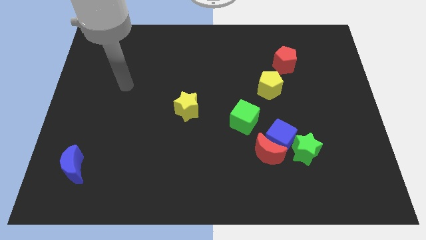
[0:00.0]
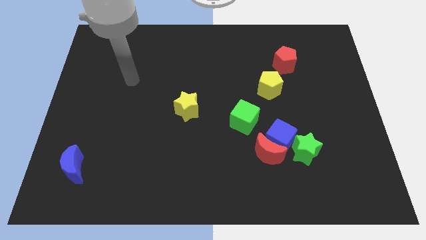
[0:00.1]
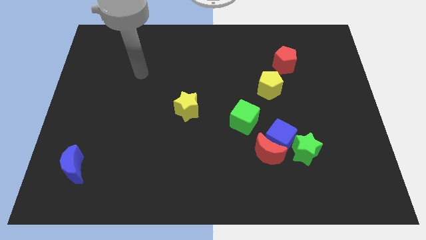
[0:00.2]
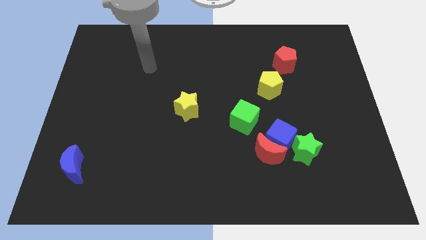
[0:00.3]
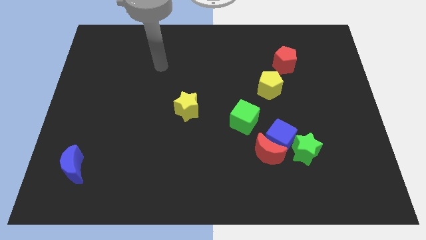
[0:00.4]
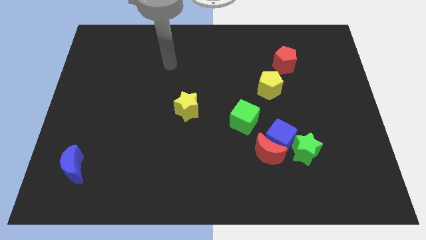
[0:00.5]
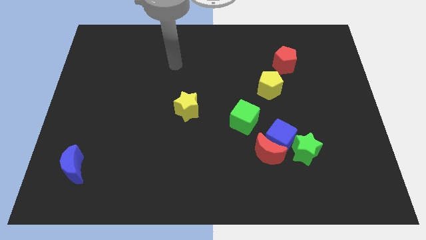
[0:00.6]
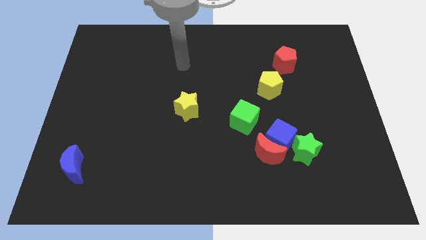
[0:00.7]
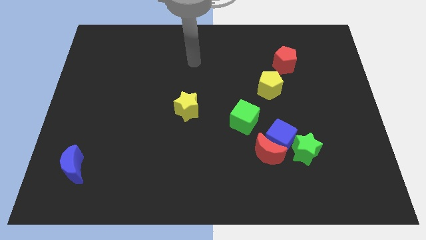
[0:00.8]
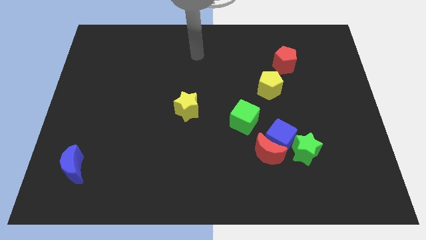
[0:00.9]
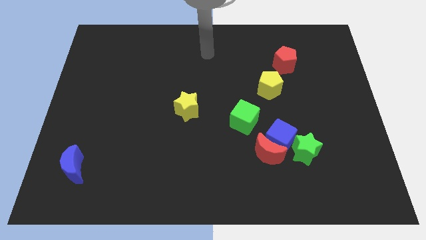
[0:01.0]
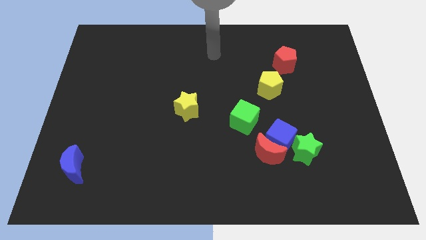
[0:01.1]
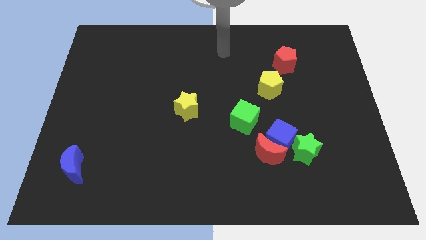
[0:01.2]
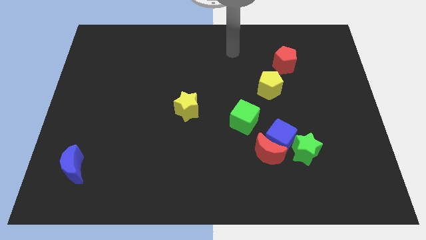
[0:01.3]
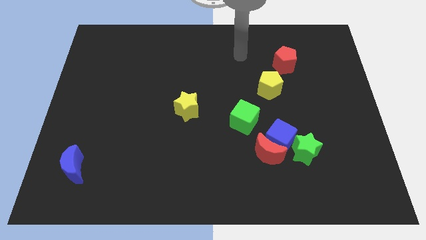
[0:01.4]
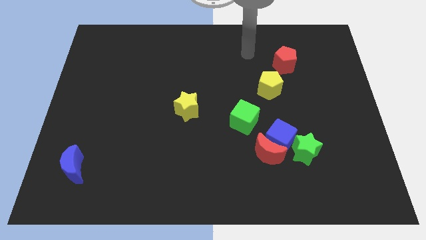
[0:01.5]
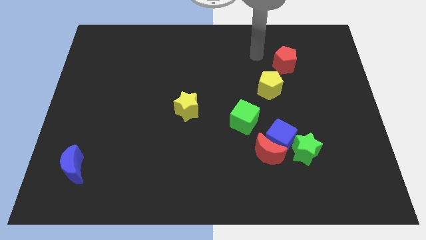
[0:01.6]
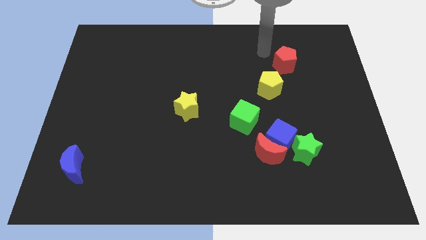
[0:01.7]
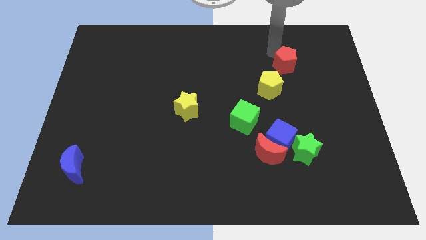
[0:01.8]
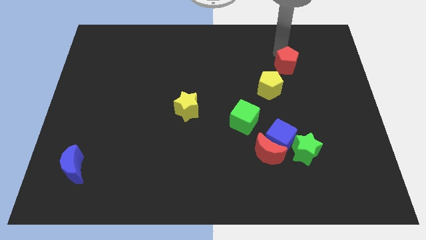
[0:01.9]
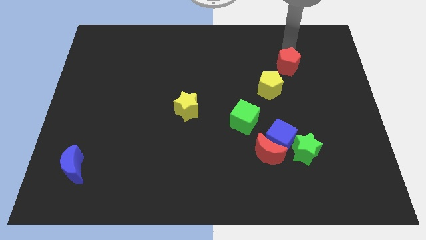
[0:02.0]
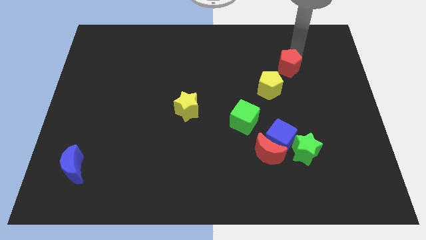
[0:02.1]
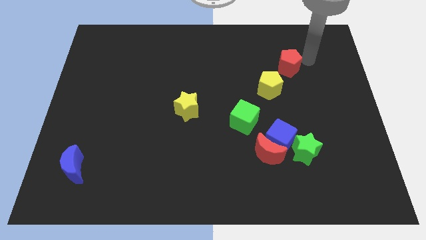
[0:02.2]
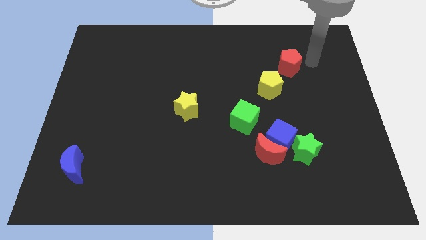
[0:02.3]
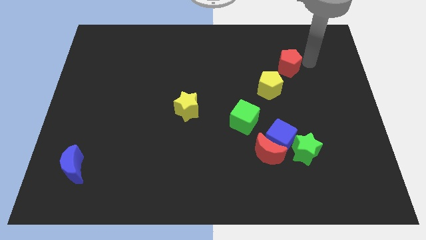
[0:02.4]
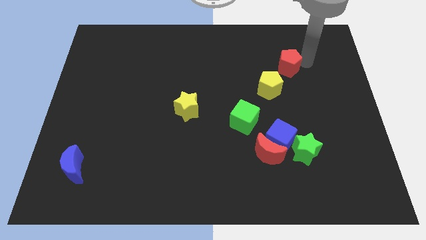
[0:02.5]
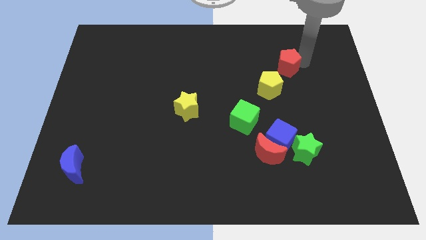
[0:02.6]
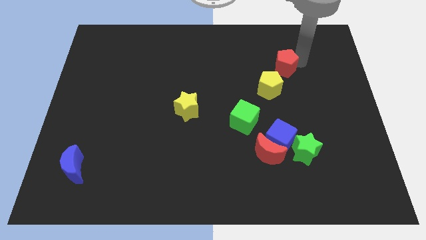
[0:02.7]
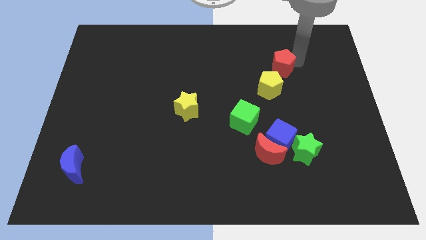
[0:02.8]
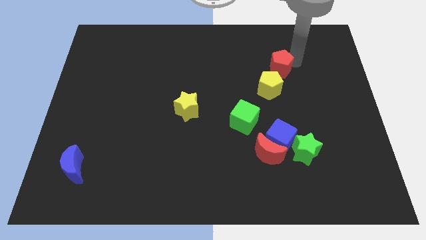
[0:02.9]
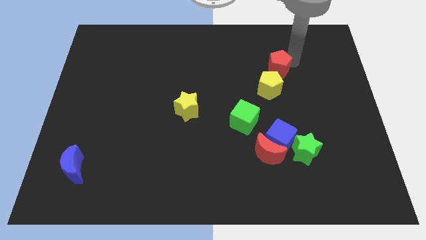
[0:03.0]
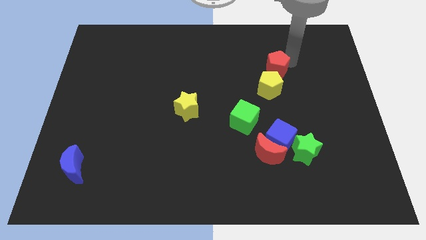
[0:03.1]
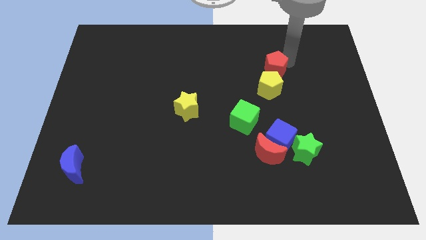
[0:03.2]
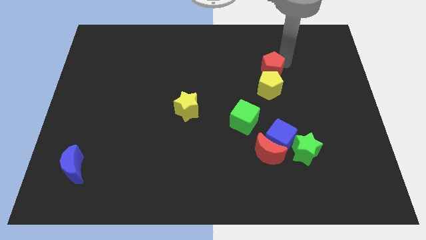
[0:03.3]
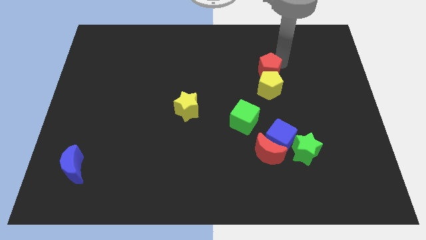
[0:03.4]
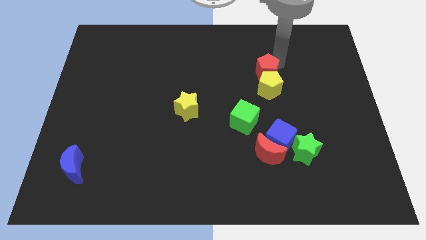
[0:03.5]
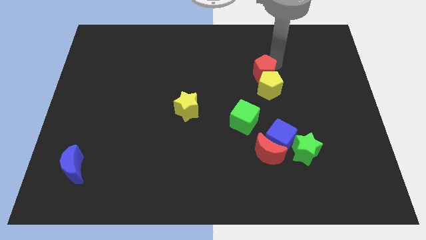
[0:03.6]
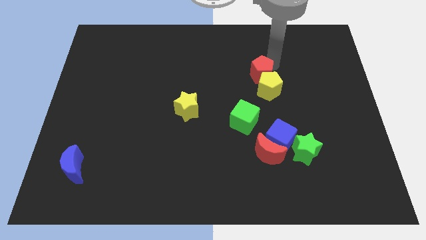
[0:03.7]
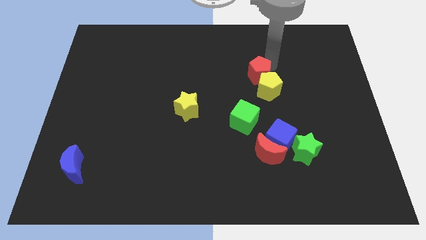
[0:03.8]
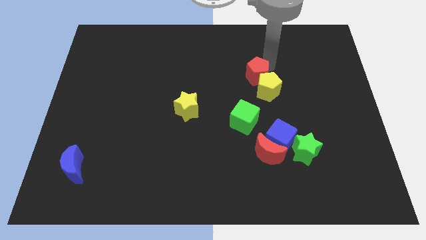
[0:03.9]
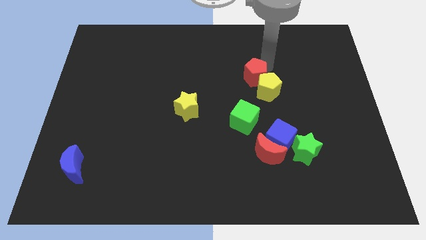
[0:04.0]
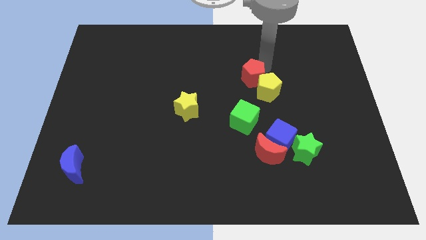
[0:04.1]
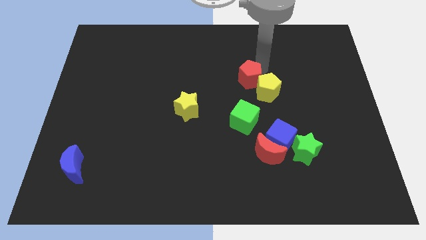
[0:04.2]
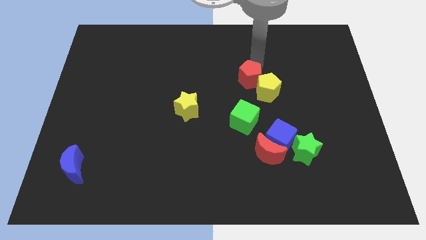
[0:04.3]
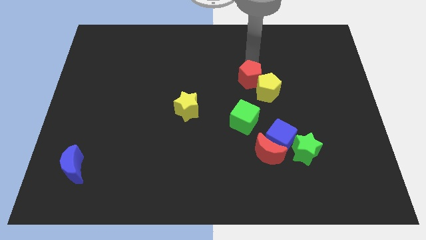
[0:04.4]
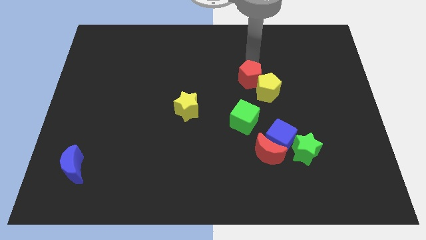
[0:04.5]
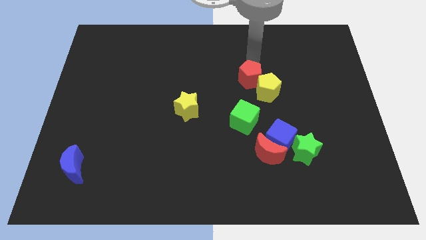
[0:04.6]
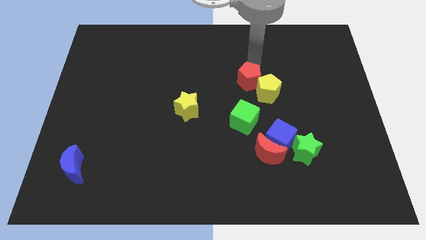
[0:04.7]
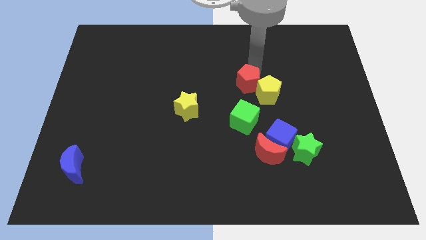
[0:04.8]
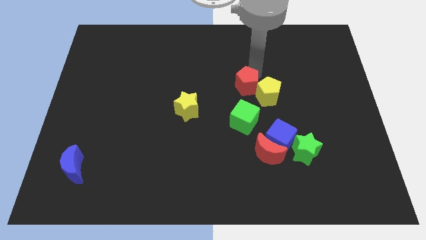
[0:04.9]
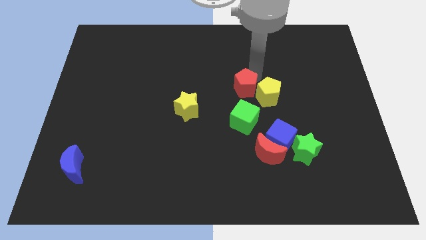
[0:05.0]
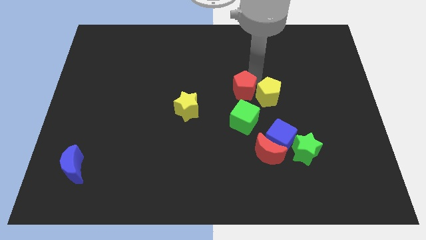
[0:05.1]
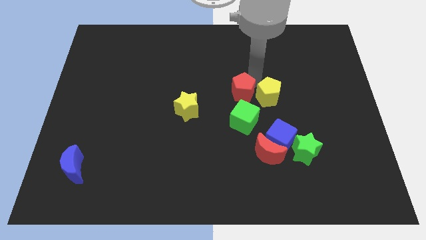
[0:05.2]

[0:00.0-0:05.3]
slide the red pentagon diagonally down and to the left of the yellow pentagon

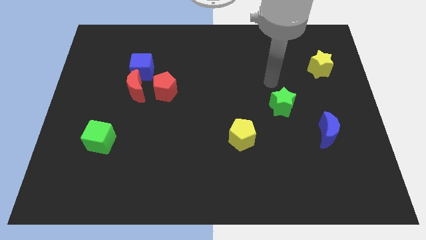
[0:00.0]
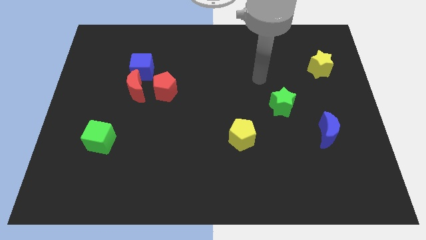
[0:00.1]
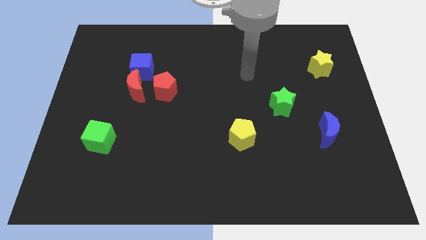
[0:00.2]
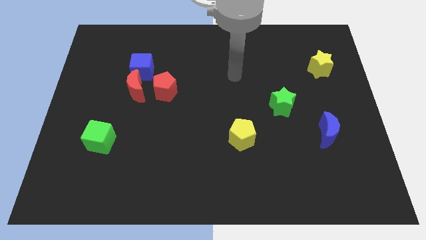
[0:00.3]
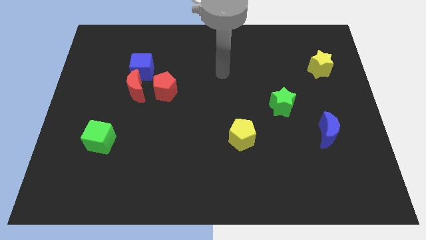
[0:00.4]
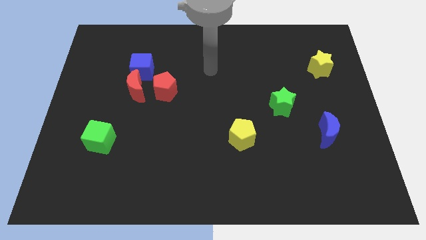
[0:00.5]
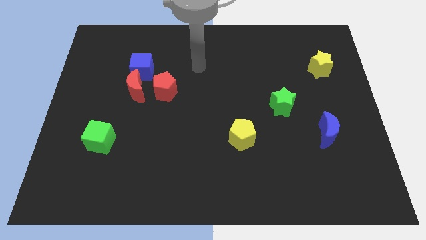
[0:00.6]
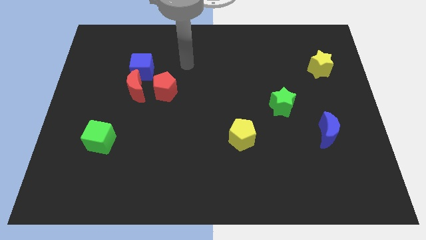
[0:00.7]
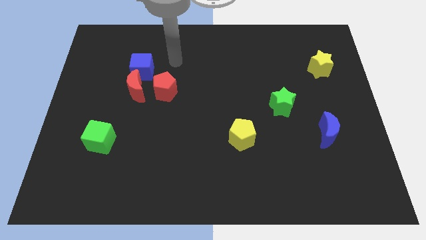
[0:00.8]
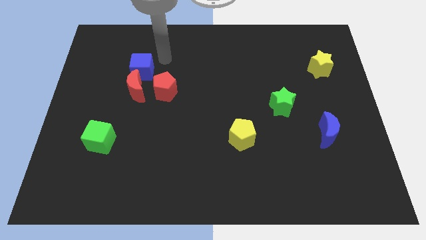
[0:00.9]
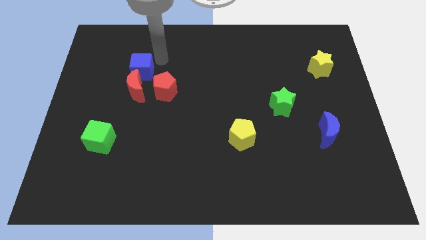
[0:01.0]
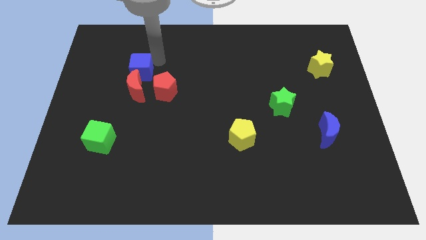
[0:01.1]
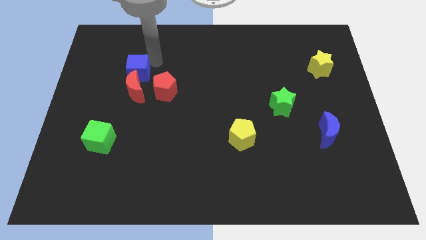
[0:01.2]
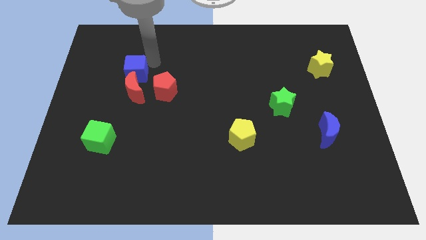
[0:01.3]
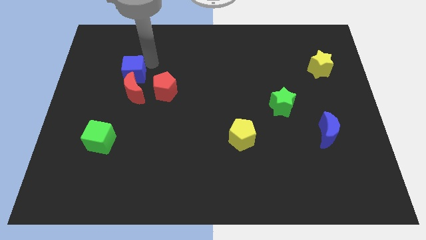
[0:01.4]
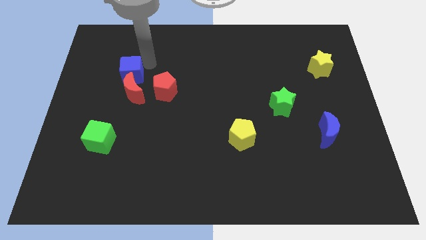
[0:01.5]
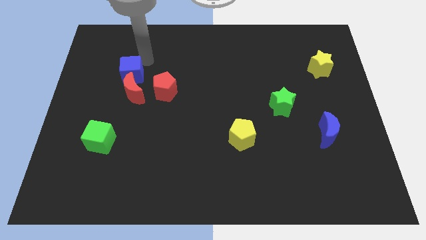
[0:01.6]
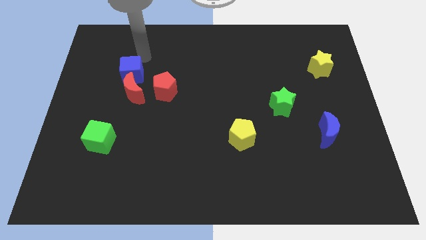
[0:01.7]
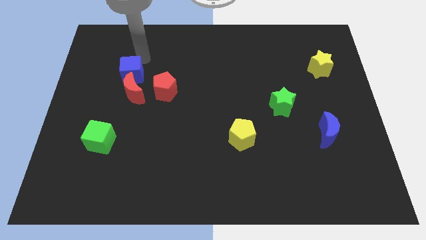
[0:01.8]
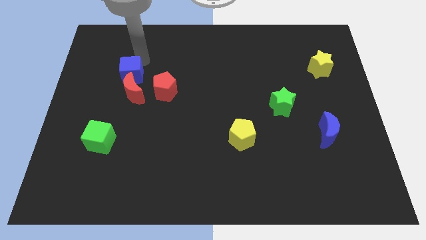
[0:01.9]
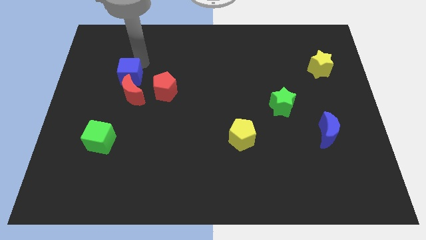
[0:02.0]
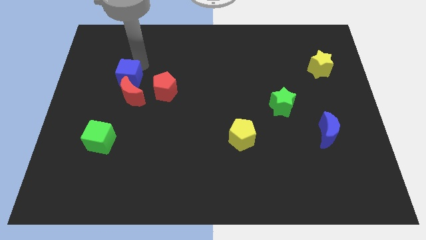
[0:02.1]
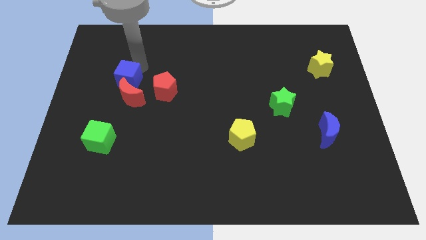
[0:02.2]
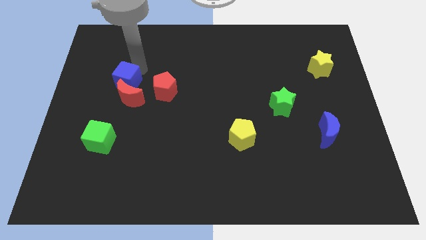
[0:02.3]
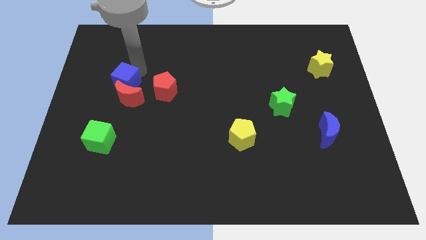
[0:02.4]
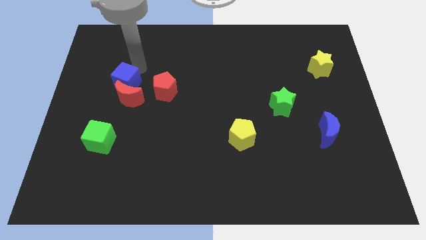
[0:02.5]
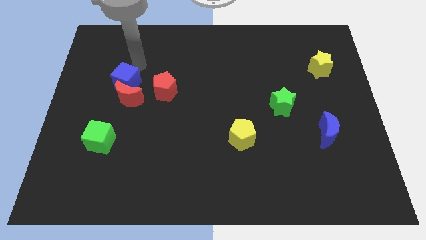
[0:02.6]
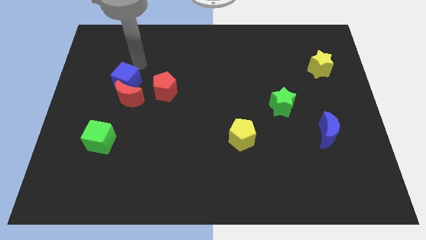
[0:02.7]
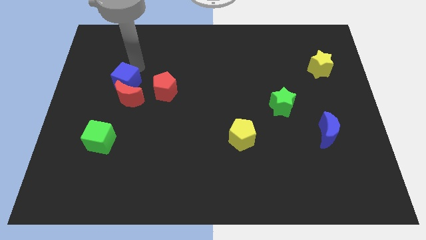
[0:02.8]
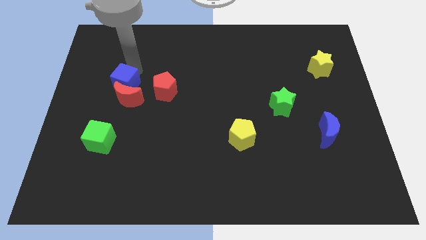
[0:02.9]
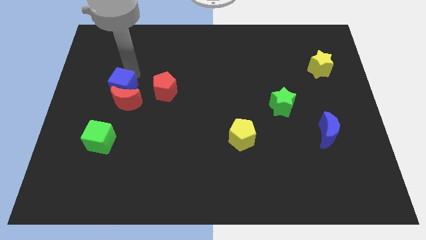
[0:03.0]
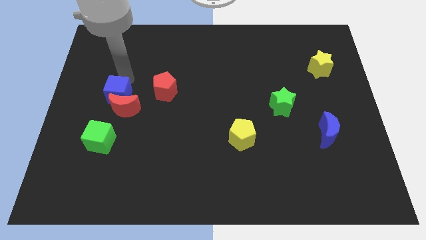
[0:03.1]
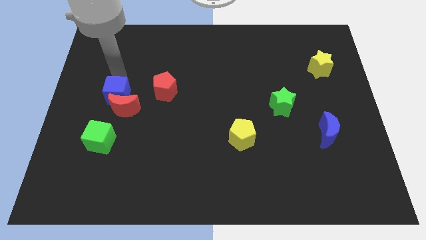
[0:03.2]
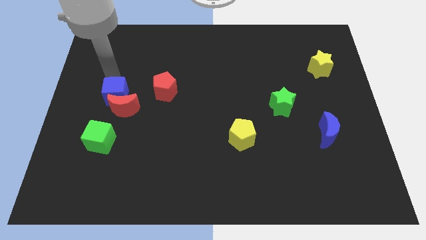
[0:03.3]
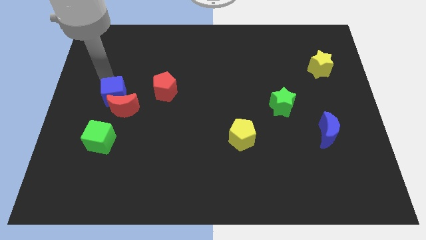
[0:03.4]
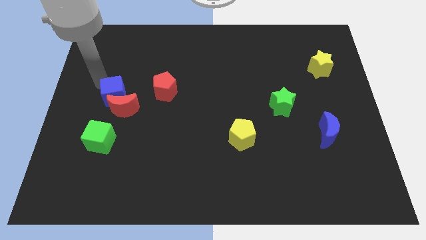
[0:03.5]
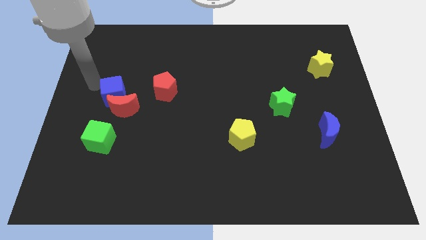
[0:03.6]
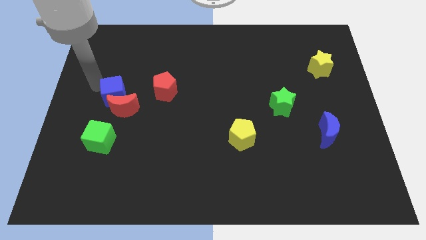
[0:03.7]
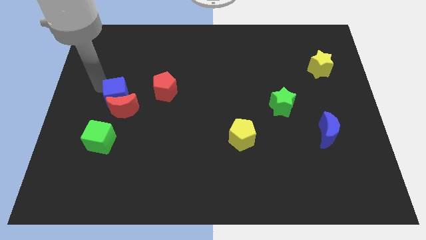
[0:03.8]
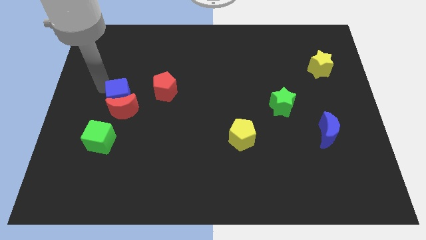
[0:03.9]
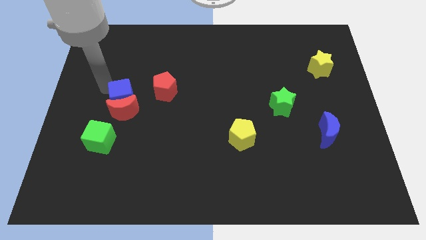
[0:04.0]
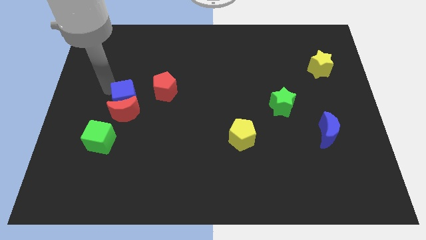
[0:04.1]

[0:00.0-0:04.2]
push the blue cube to the bottom left side of the red pentagon
